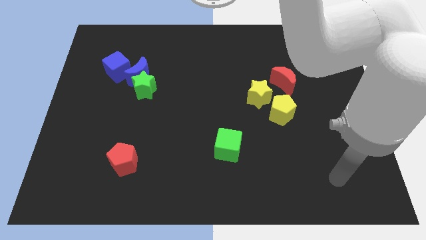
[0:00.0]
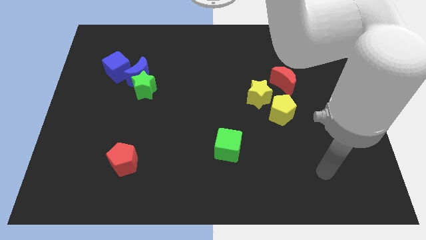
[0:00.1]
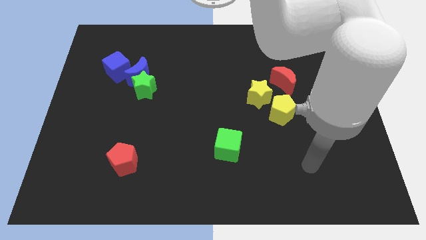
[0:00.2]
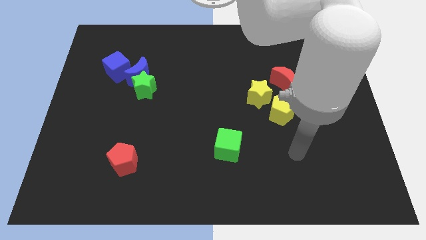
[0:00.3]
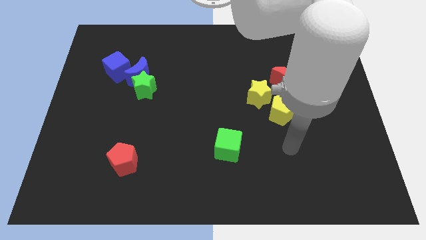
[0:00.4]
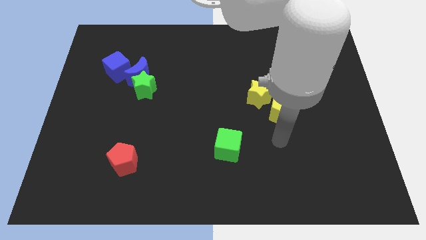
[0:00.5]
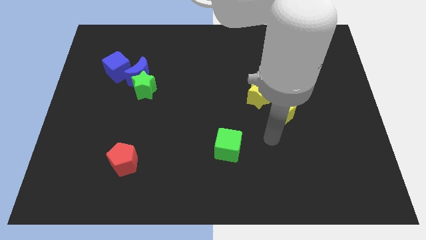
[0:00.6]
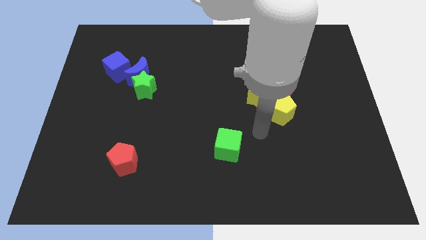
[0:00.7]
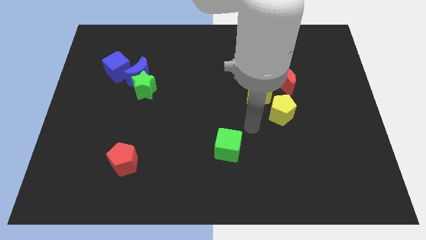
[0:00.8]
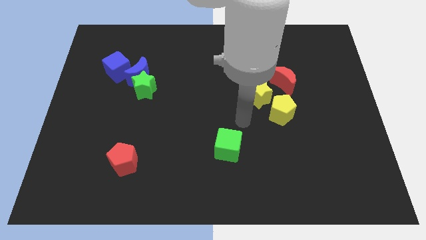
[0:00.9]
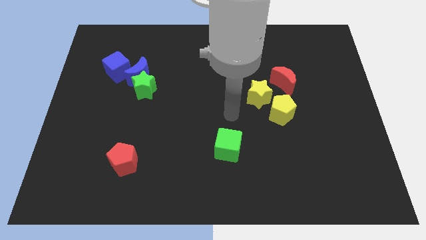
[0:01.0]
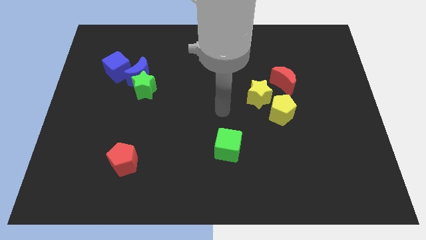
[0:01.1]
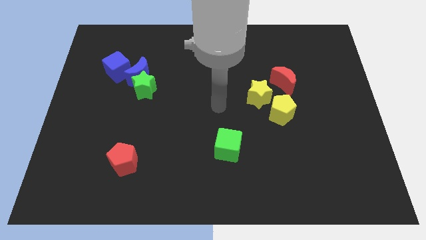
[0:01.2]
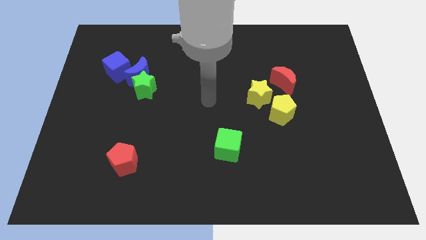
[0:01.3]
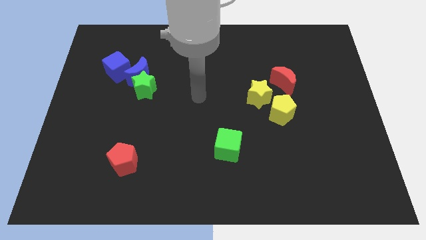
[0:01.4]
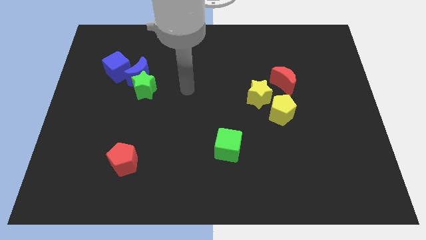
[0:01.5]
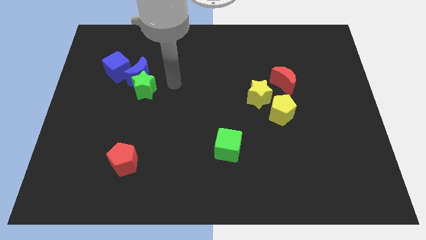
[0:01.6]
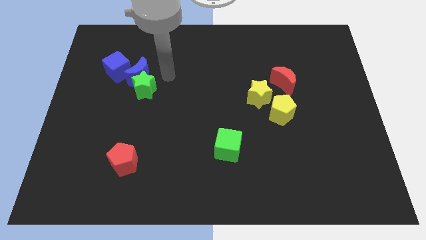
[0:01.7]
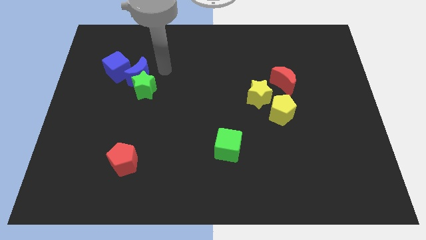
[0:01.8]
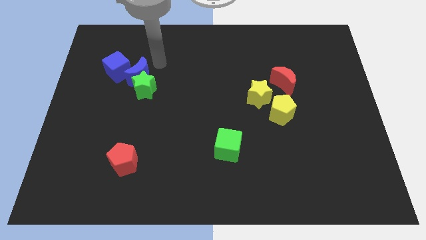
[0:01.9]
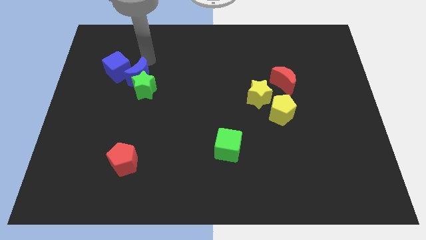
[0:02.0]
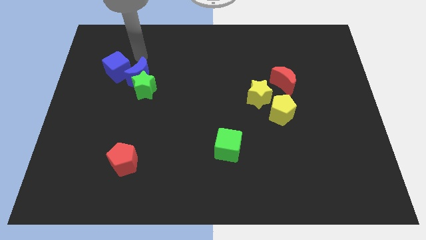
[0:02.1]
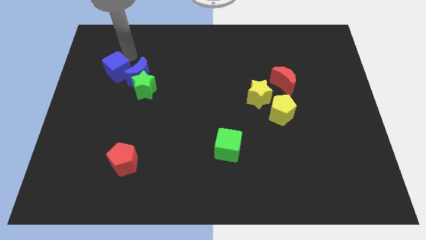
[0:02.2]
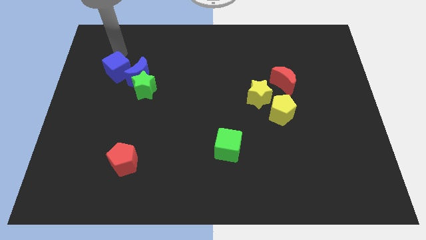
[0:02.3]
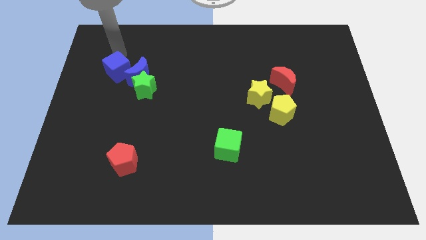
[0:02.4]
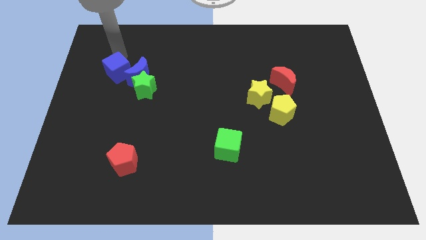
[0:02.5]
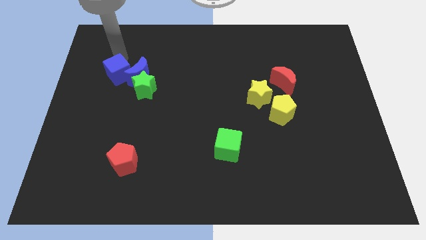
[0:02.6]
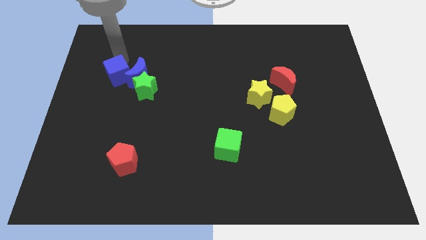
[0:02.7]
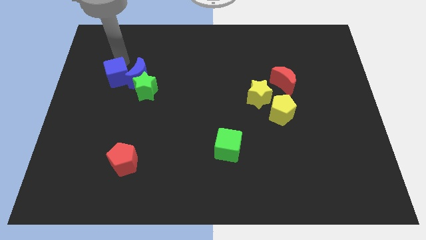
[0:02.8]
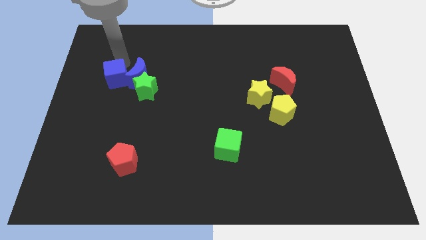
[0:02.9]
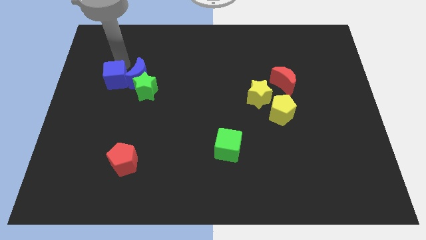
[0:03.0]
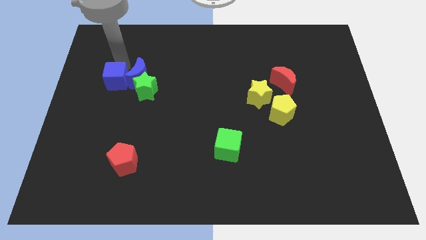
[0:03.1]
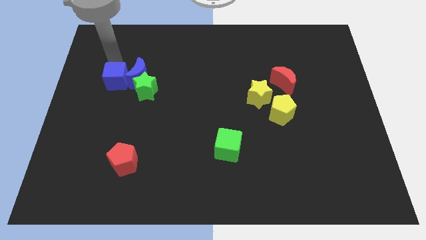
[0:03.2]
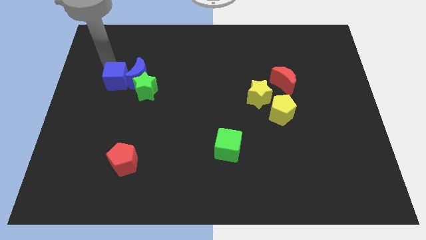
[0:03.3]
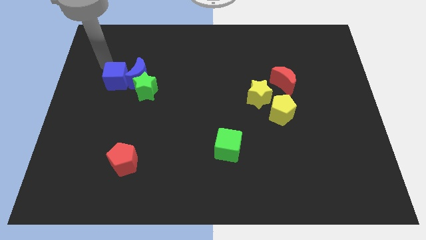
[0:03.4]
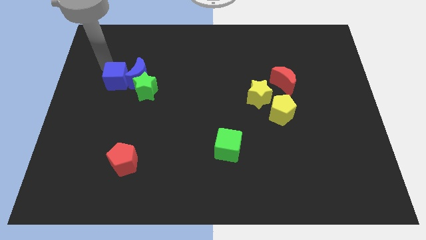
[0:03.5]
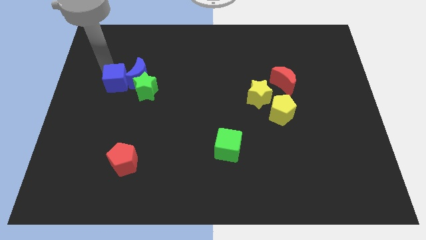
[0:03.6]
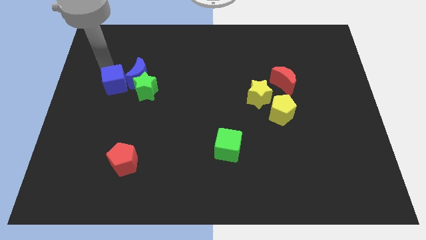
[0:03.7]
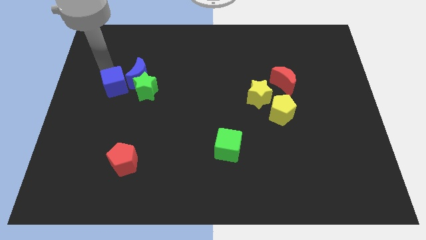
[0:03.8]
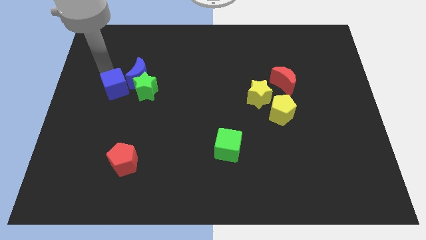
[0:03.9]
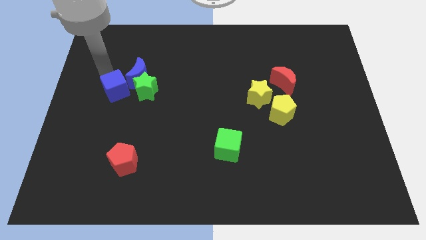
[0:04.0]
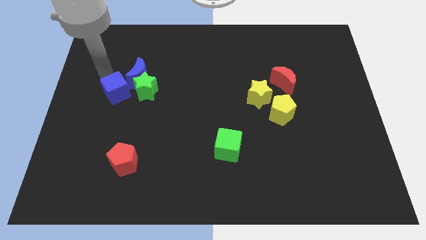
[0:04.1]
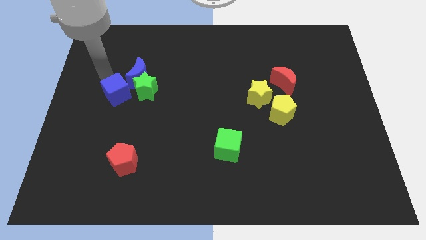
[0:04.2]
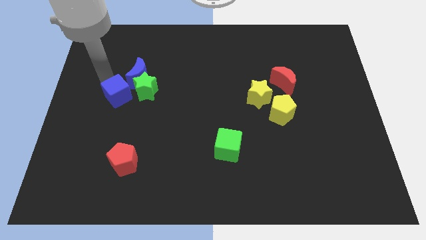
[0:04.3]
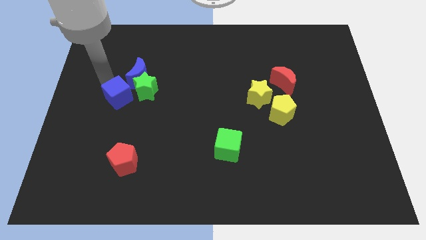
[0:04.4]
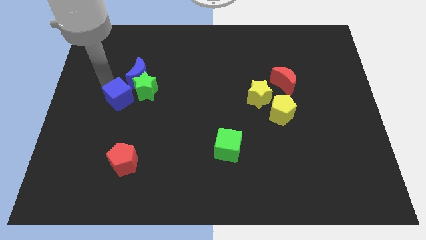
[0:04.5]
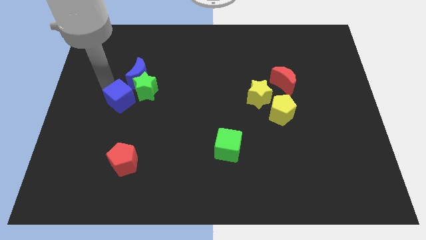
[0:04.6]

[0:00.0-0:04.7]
slightly slide the blue cube down and right

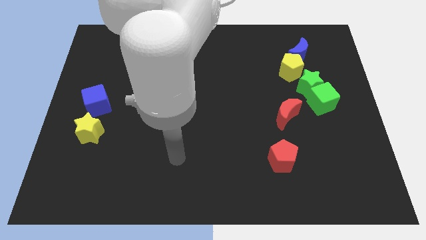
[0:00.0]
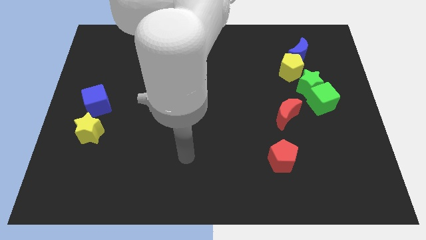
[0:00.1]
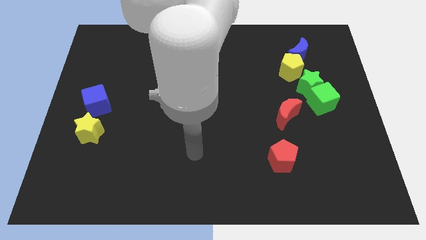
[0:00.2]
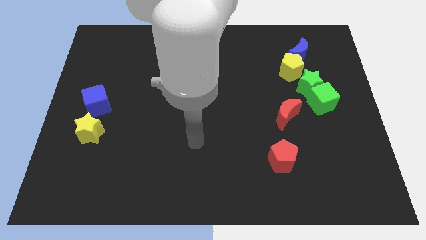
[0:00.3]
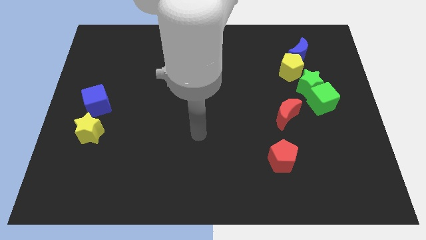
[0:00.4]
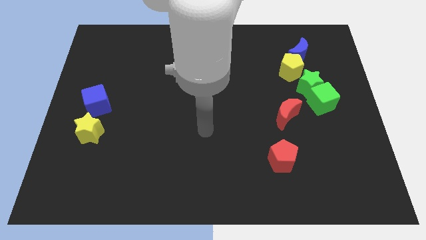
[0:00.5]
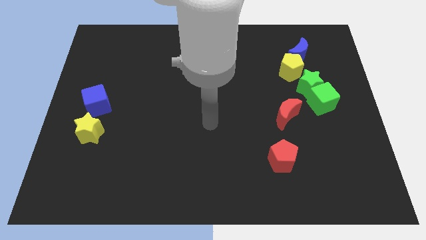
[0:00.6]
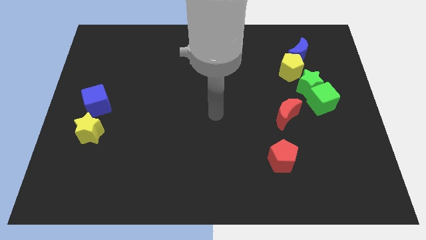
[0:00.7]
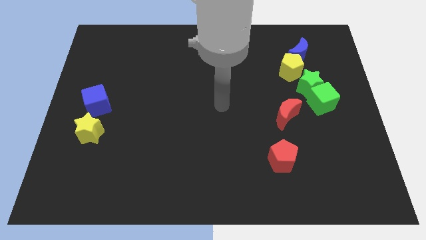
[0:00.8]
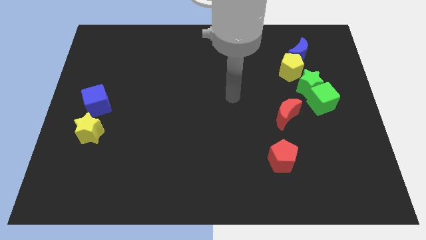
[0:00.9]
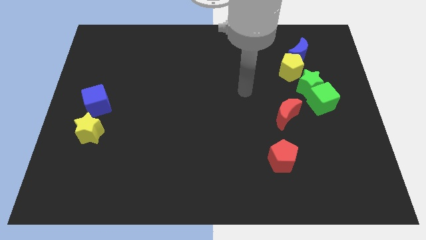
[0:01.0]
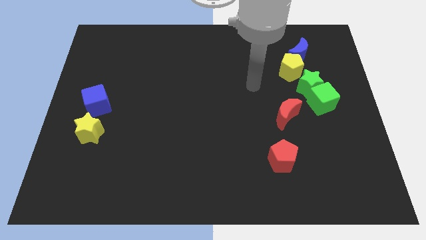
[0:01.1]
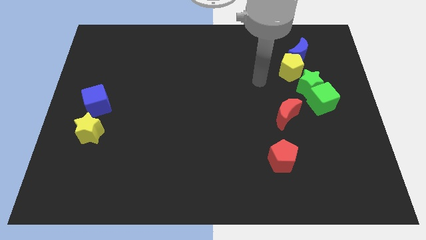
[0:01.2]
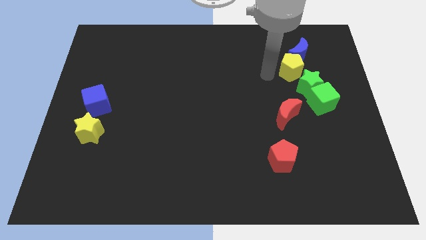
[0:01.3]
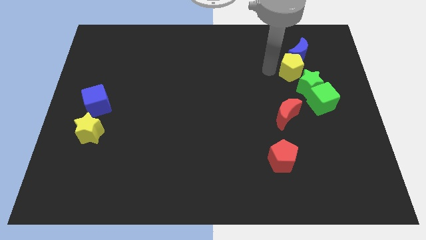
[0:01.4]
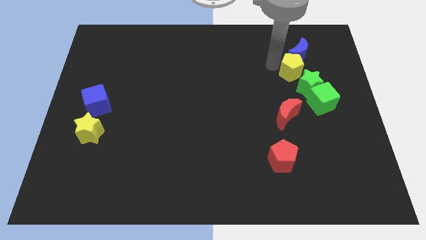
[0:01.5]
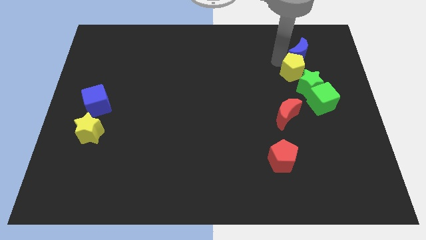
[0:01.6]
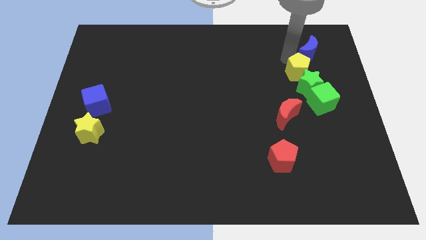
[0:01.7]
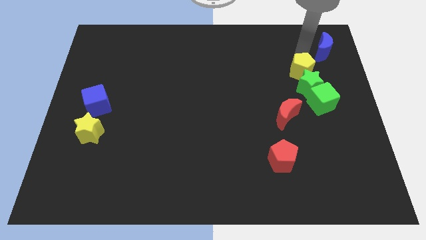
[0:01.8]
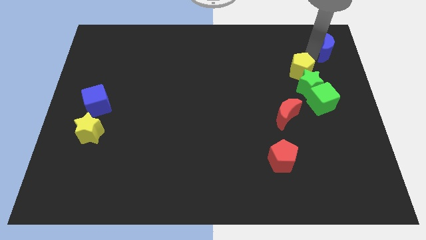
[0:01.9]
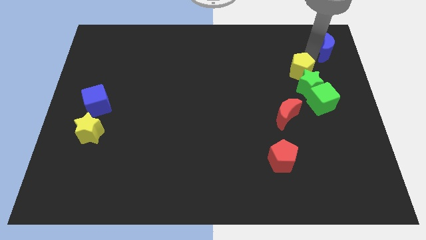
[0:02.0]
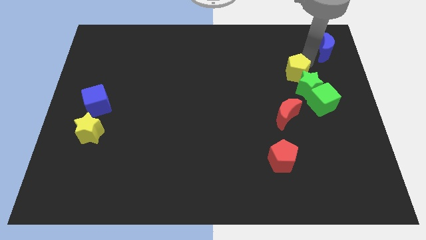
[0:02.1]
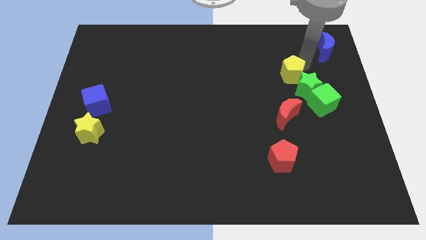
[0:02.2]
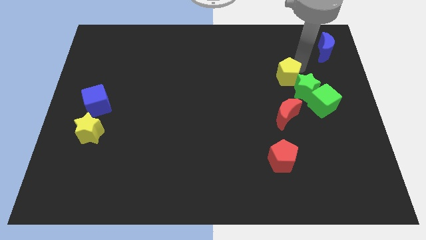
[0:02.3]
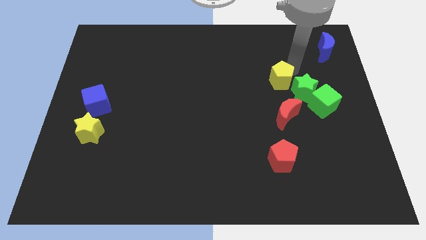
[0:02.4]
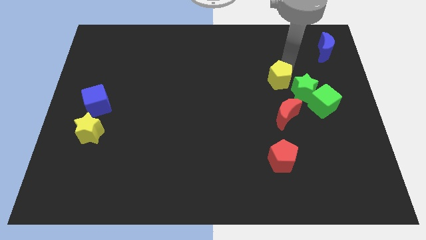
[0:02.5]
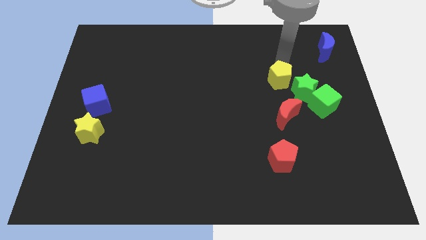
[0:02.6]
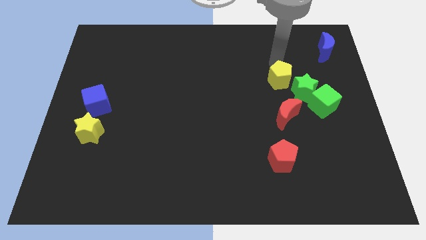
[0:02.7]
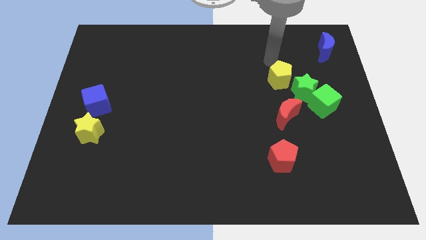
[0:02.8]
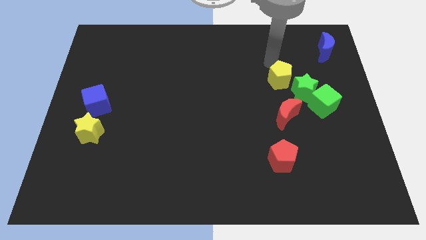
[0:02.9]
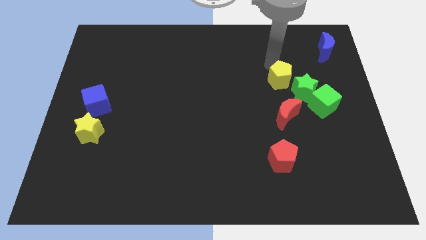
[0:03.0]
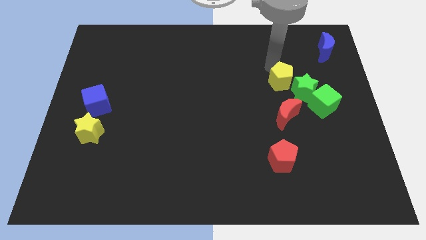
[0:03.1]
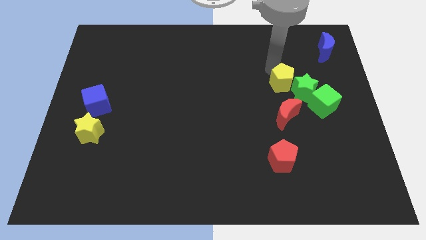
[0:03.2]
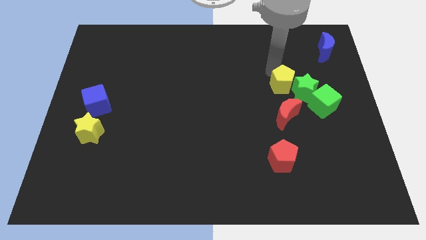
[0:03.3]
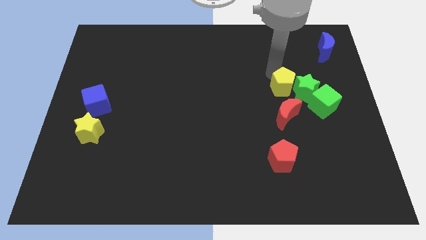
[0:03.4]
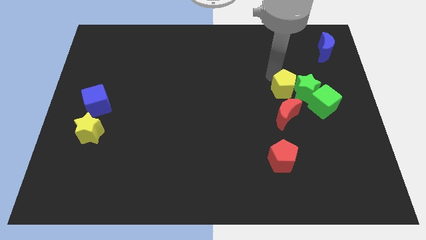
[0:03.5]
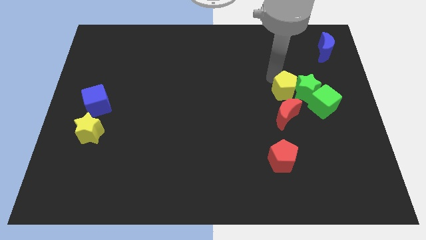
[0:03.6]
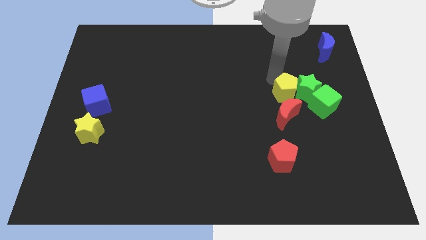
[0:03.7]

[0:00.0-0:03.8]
slightly push the yellow pentagon downwards
